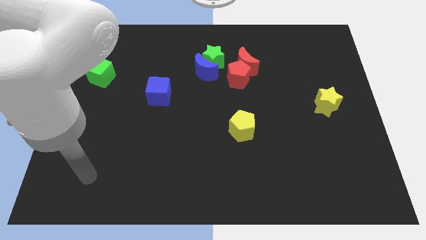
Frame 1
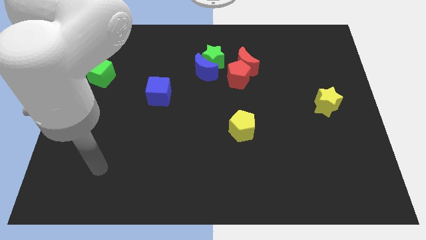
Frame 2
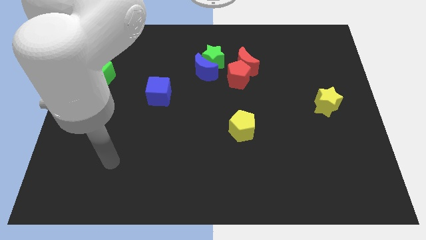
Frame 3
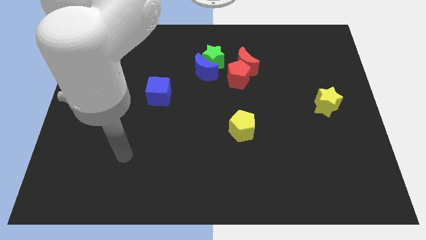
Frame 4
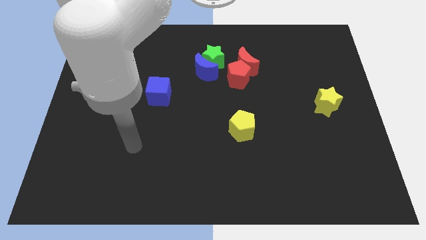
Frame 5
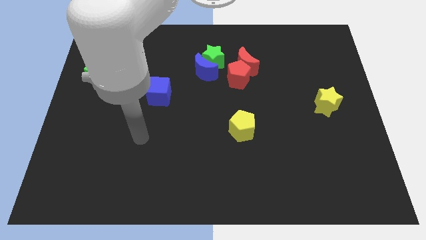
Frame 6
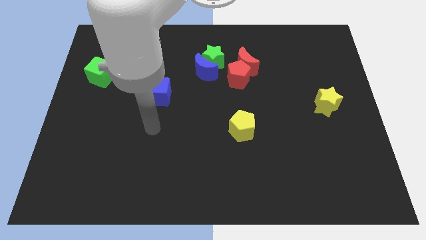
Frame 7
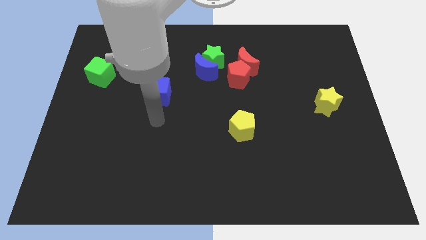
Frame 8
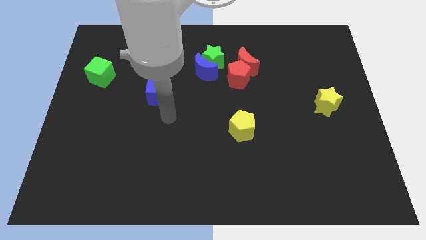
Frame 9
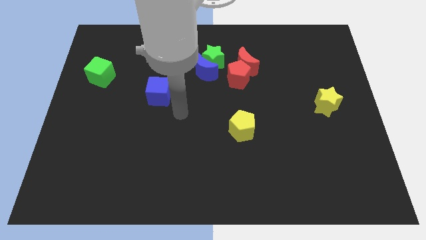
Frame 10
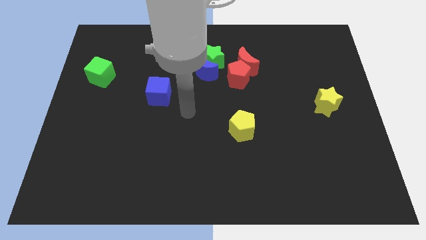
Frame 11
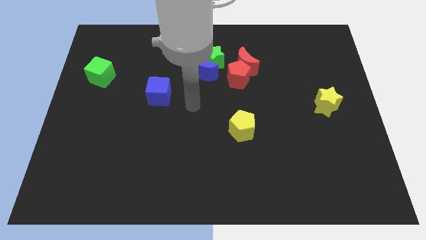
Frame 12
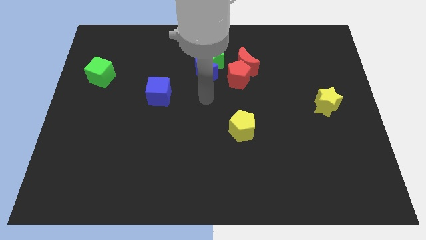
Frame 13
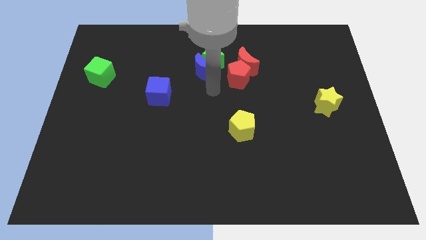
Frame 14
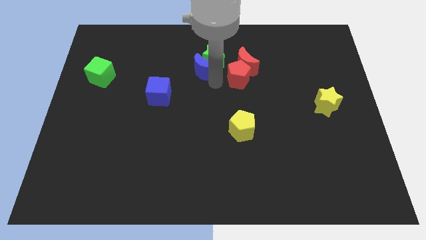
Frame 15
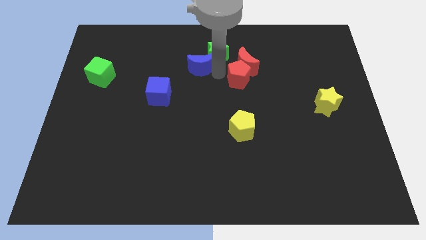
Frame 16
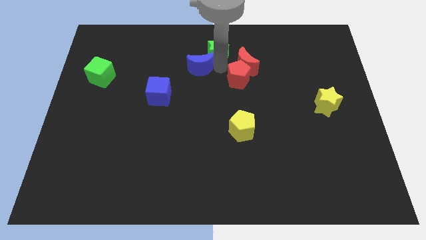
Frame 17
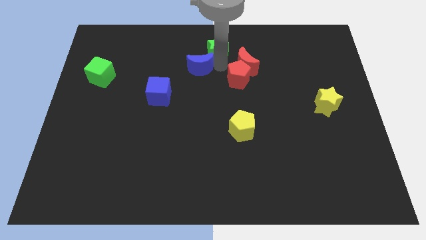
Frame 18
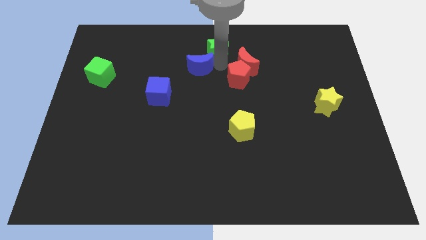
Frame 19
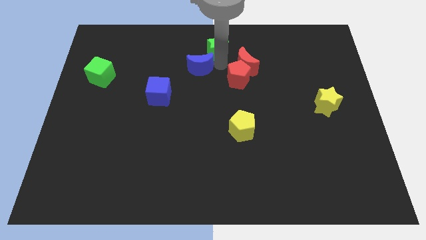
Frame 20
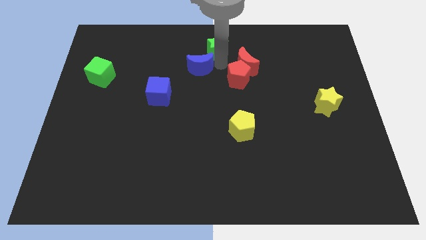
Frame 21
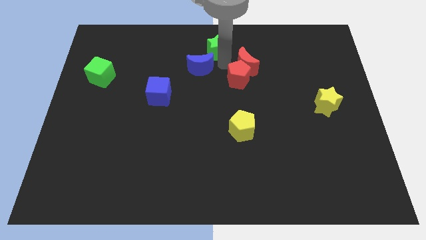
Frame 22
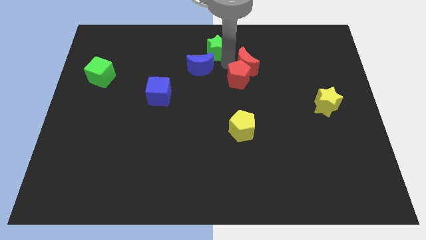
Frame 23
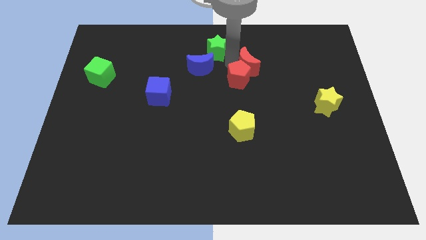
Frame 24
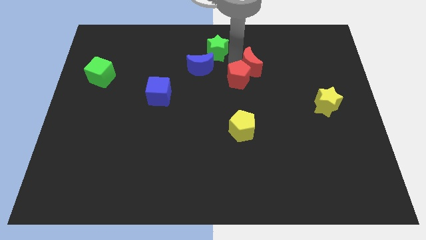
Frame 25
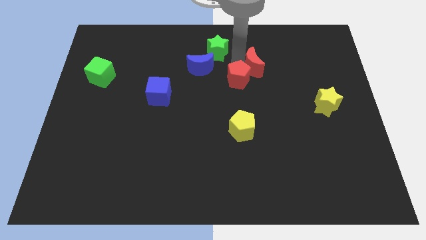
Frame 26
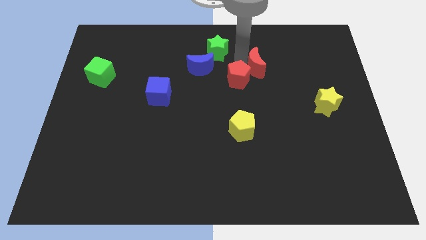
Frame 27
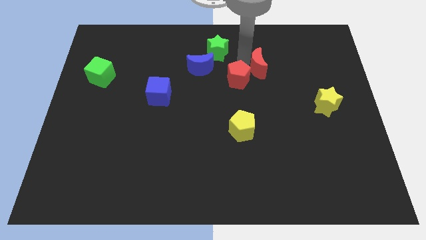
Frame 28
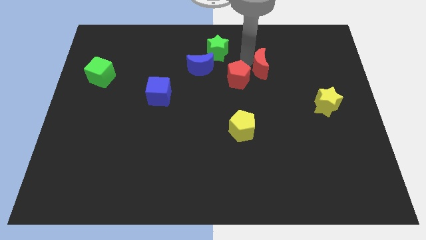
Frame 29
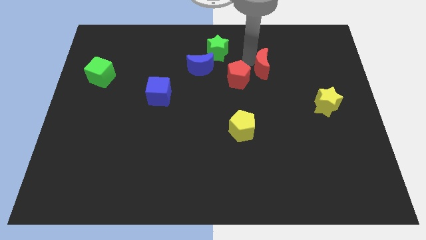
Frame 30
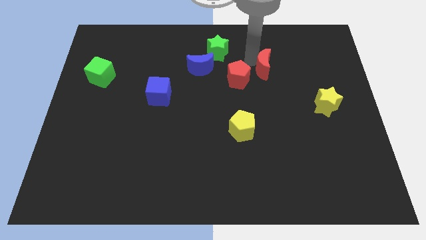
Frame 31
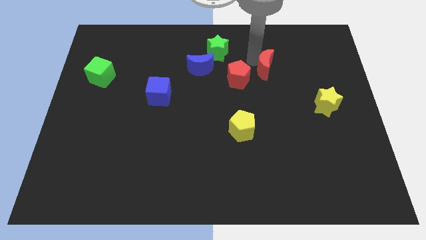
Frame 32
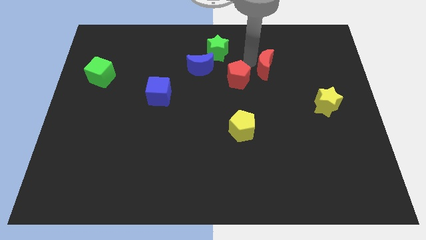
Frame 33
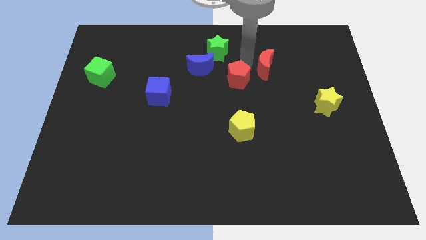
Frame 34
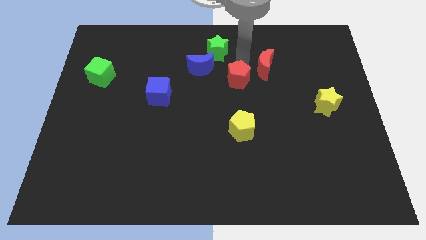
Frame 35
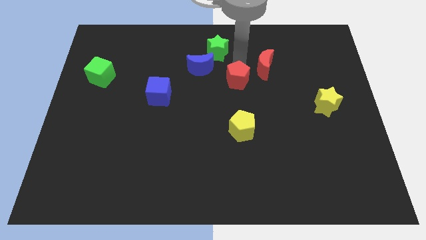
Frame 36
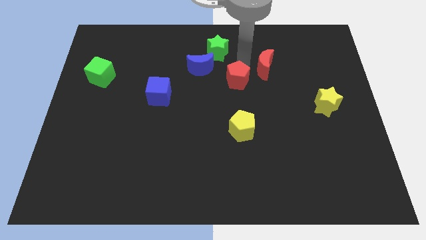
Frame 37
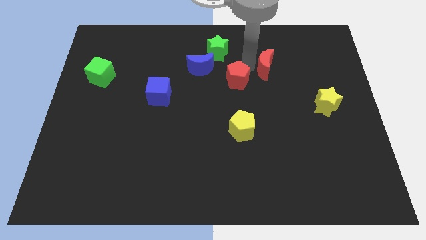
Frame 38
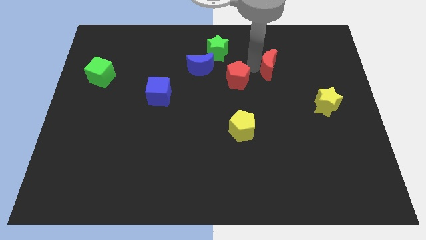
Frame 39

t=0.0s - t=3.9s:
move the red moon away from the red pentagon and green star

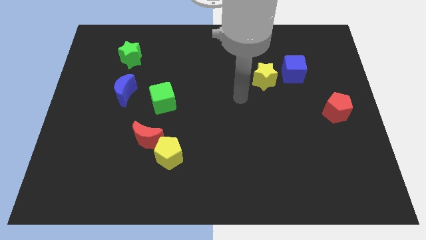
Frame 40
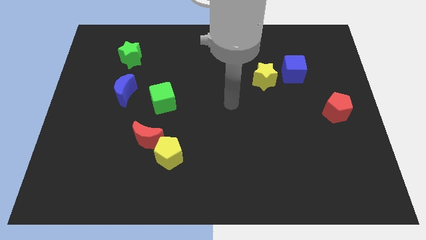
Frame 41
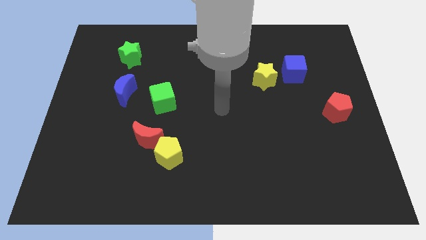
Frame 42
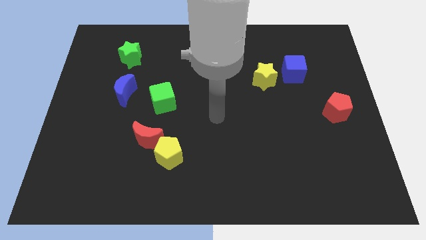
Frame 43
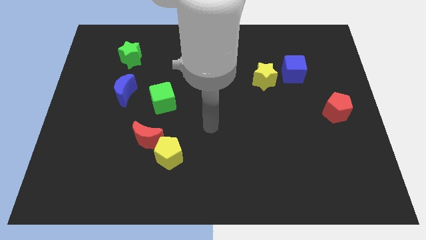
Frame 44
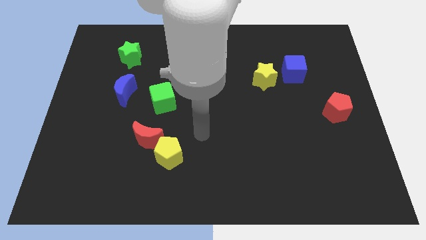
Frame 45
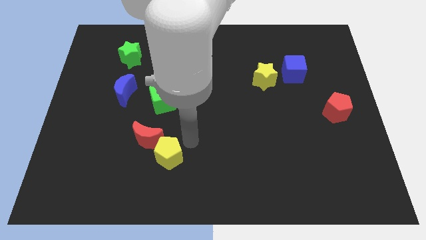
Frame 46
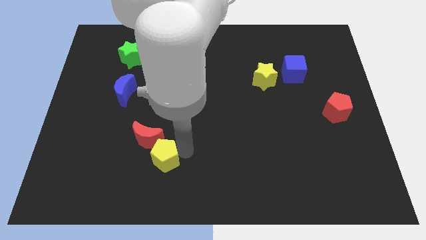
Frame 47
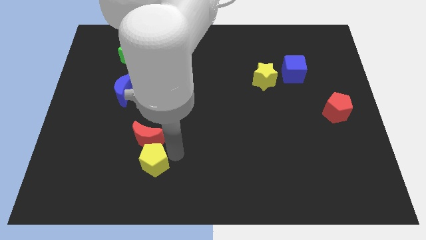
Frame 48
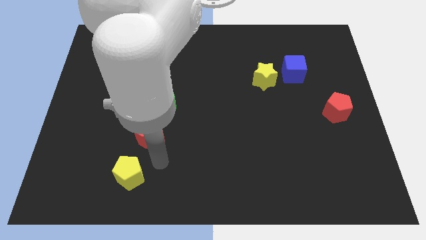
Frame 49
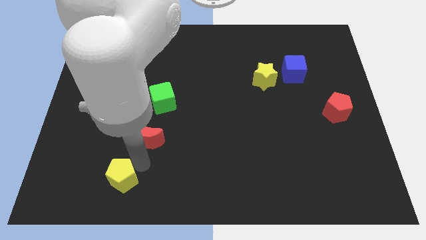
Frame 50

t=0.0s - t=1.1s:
pull the red moon apart from the yellow pentagon

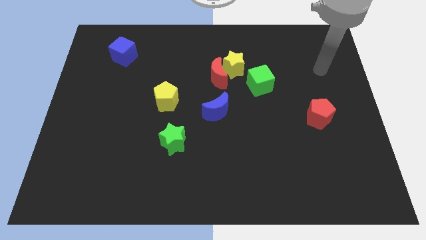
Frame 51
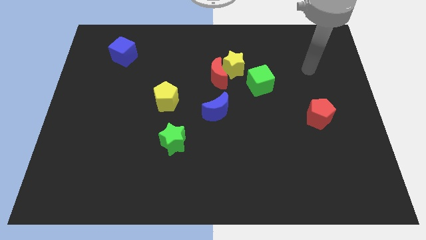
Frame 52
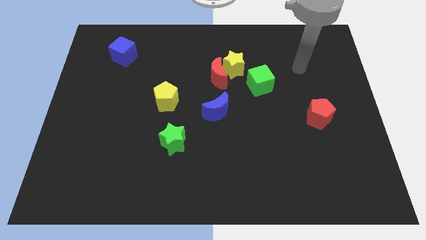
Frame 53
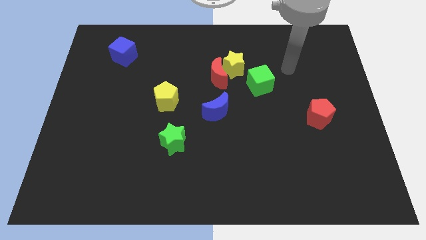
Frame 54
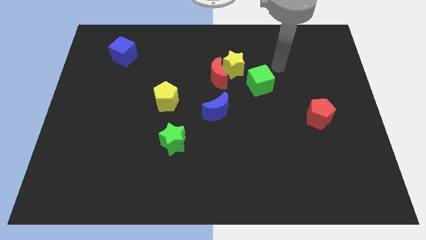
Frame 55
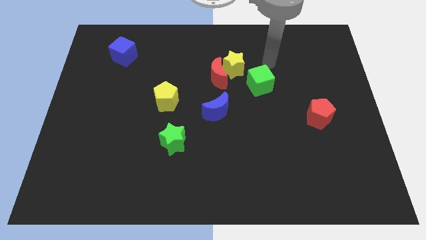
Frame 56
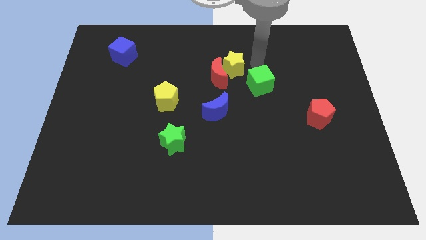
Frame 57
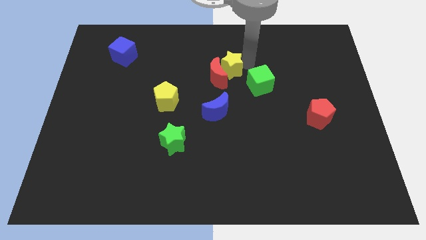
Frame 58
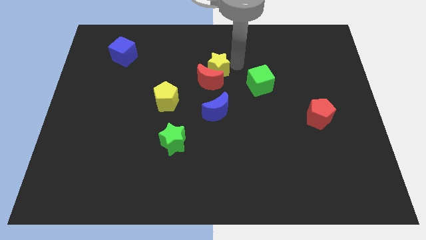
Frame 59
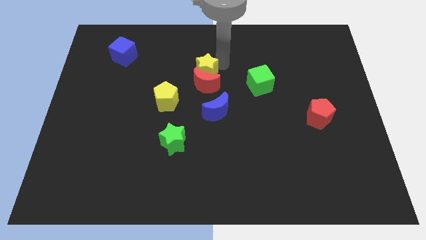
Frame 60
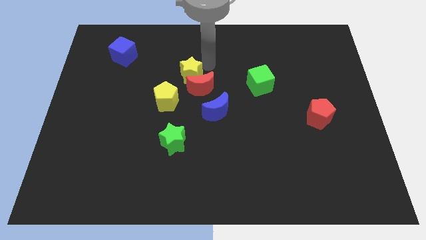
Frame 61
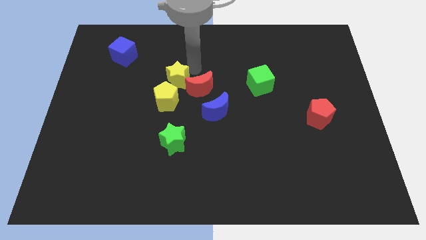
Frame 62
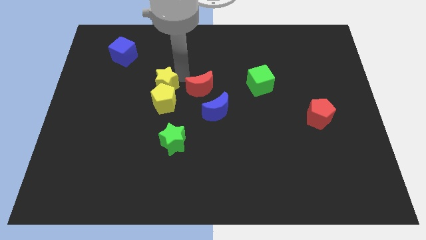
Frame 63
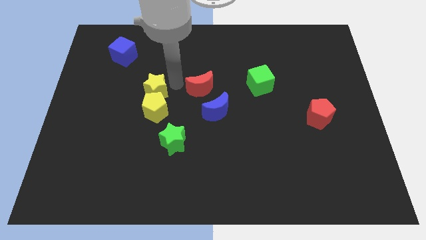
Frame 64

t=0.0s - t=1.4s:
move the red moon away from the yellow star

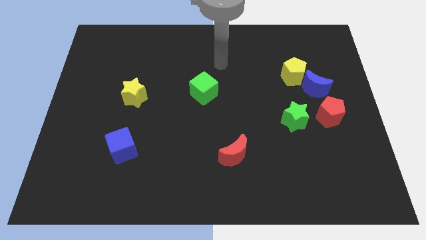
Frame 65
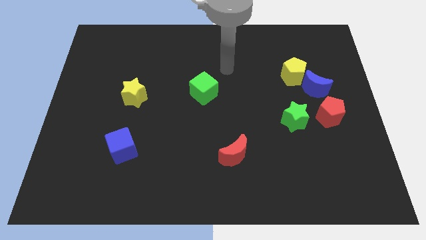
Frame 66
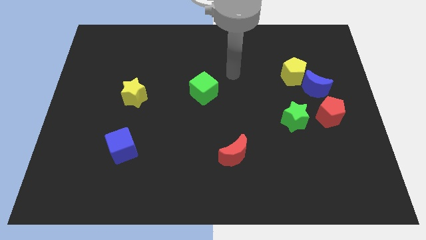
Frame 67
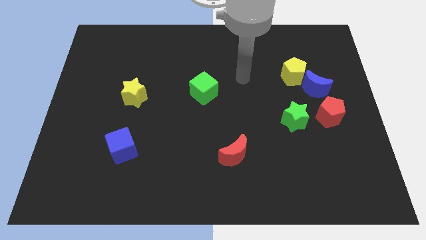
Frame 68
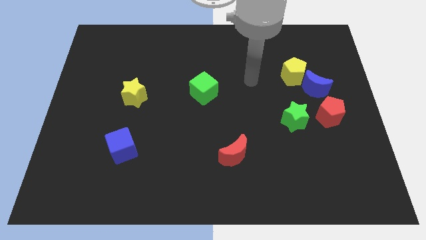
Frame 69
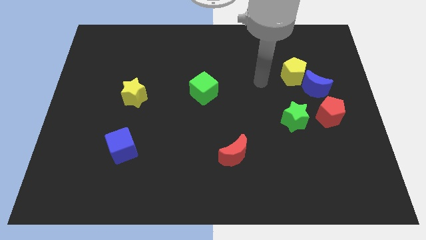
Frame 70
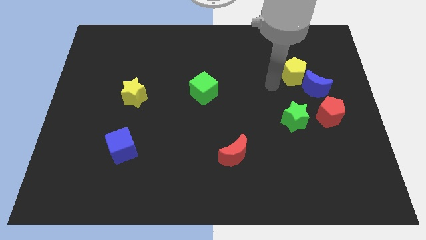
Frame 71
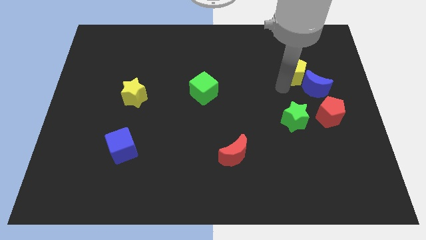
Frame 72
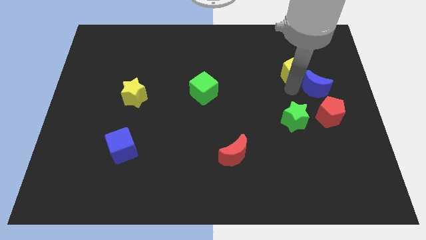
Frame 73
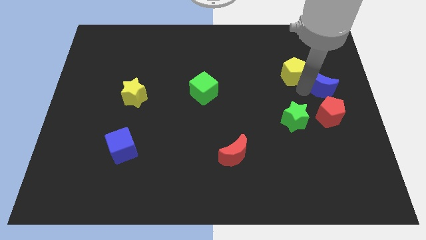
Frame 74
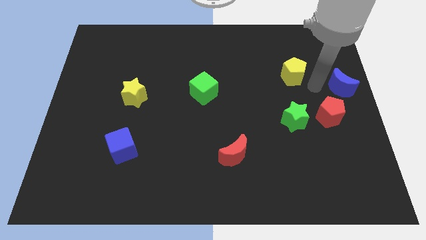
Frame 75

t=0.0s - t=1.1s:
move the yellow pentagon away from the blue moon

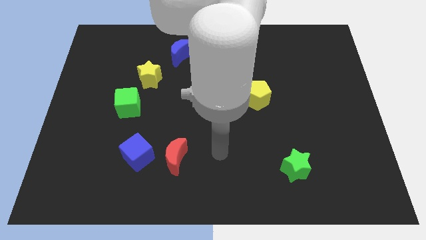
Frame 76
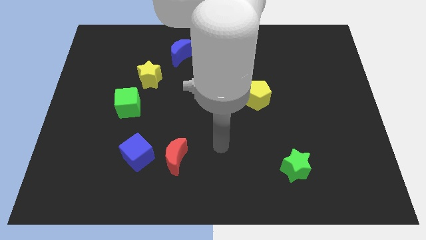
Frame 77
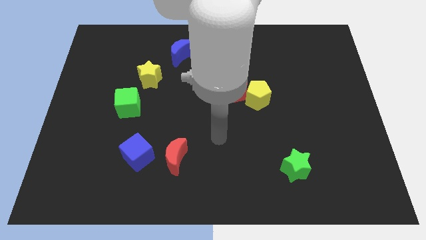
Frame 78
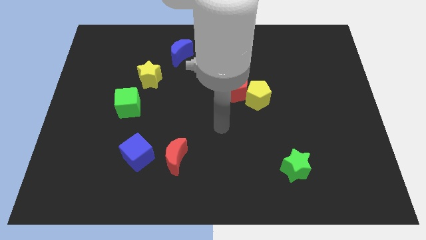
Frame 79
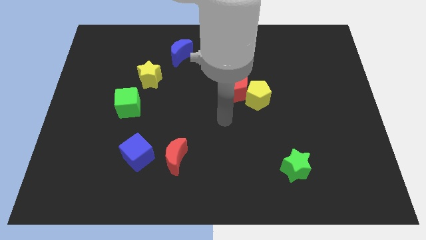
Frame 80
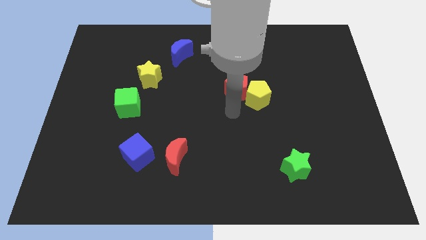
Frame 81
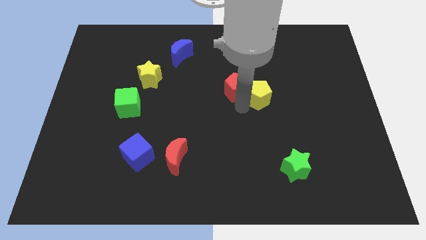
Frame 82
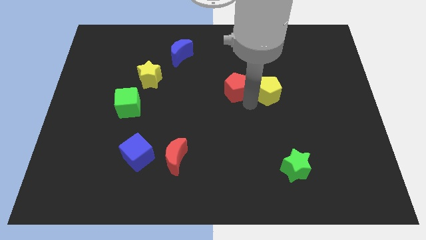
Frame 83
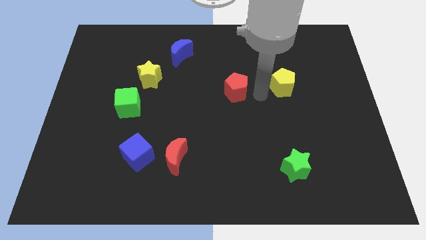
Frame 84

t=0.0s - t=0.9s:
pull the red pentagon apart from the yellow pentagon

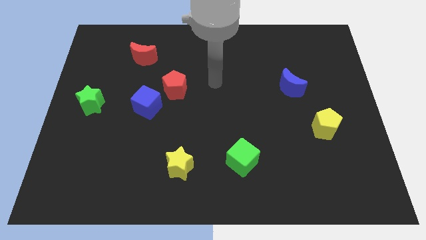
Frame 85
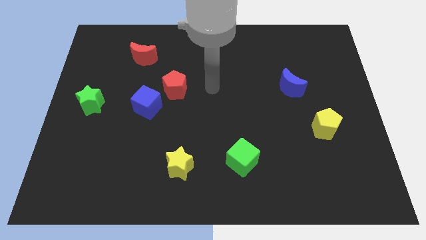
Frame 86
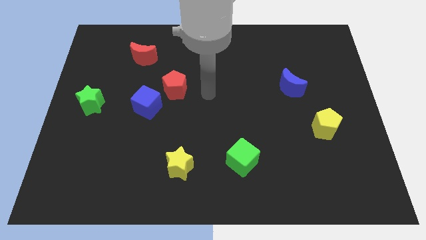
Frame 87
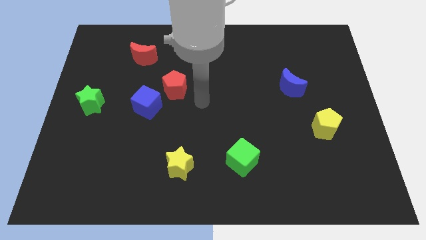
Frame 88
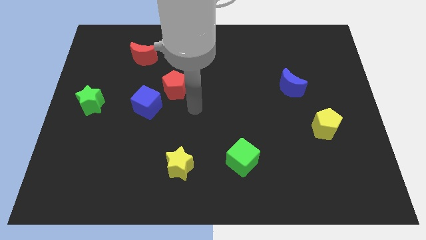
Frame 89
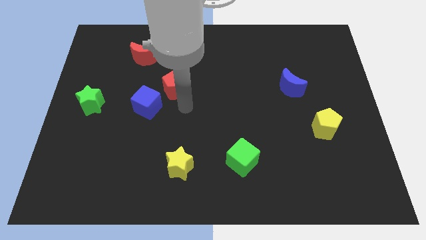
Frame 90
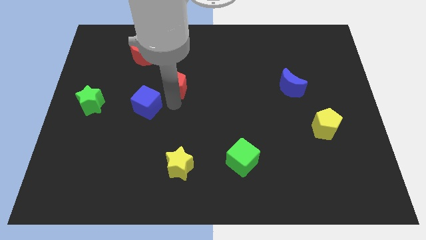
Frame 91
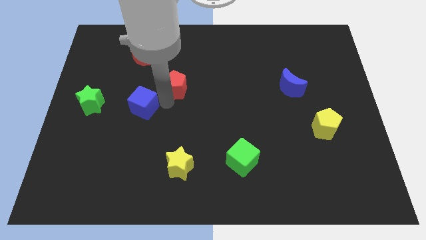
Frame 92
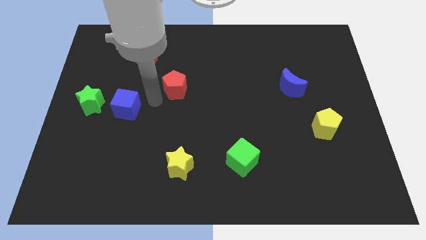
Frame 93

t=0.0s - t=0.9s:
pull the red pentagon apart from the blue cube
